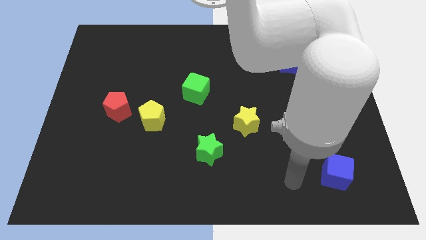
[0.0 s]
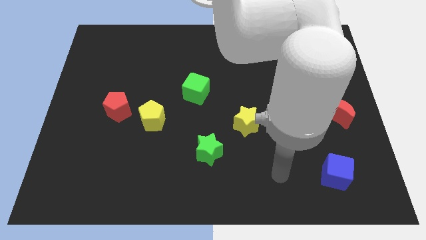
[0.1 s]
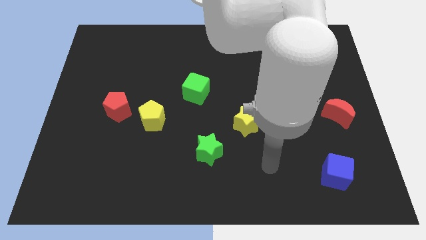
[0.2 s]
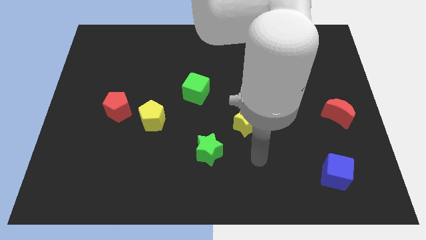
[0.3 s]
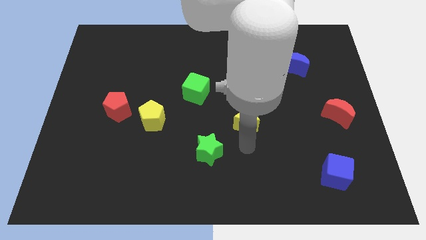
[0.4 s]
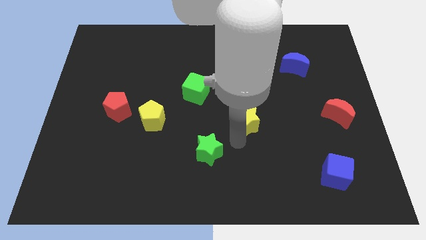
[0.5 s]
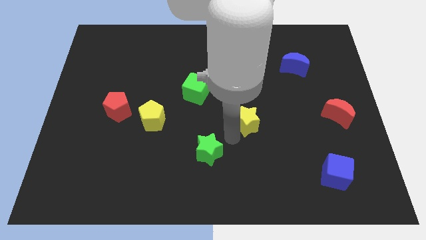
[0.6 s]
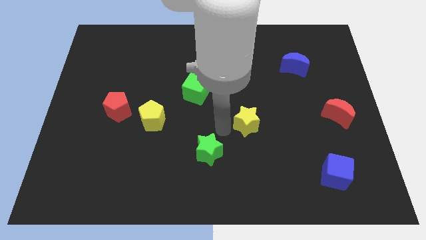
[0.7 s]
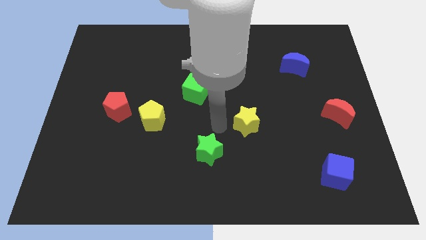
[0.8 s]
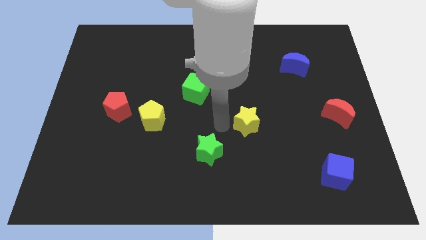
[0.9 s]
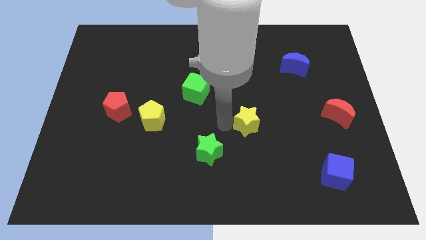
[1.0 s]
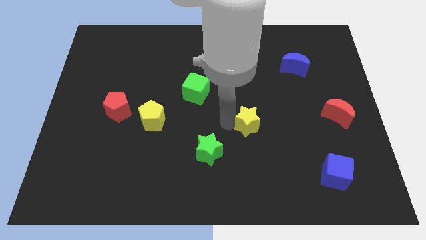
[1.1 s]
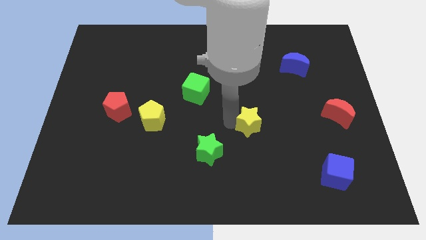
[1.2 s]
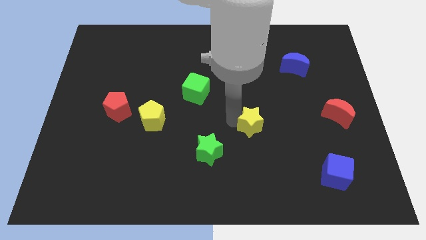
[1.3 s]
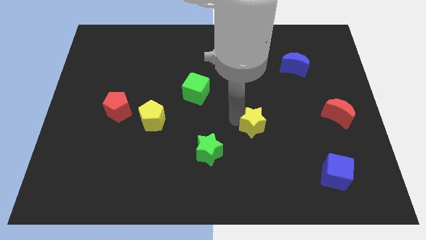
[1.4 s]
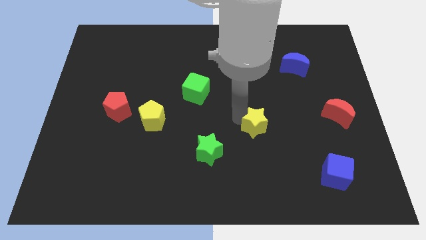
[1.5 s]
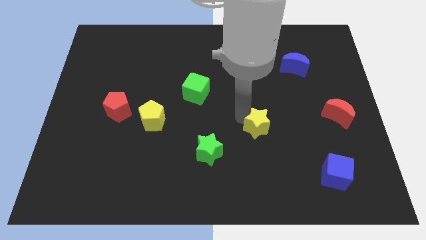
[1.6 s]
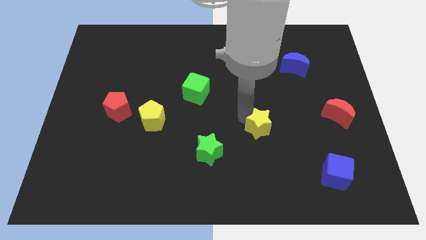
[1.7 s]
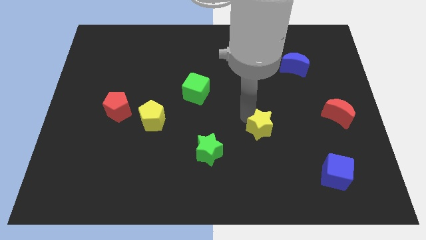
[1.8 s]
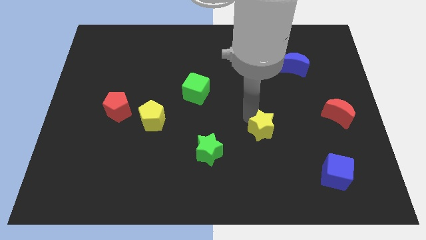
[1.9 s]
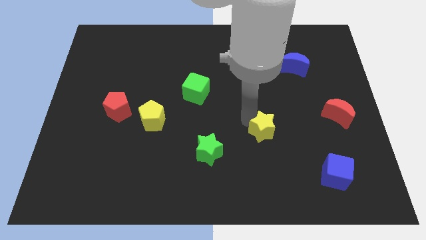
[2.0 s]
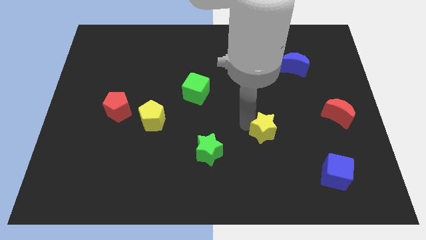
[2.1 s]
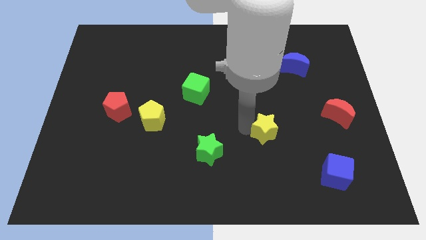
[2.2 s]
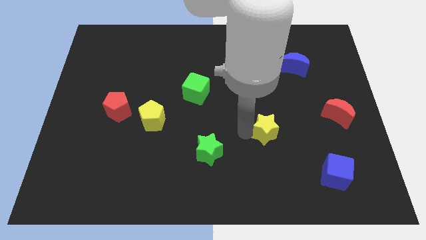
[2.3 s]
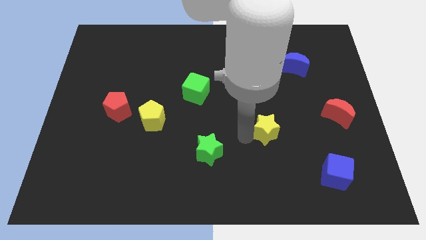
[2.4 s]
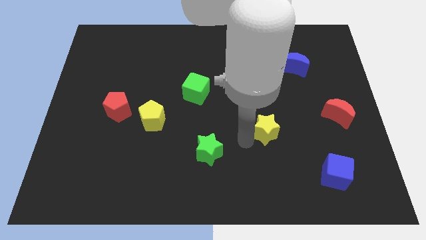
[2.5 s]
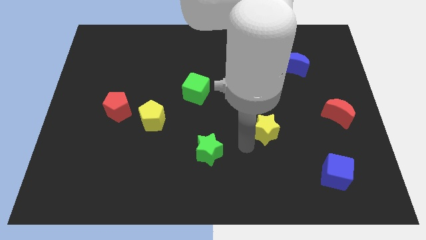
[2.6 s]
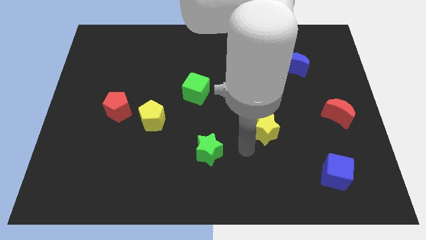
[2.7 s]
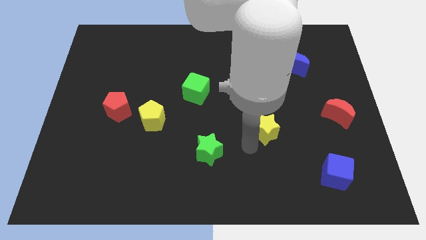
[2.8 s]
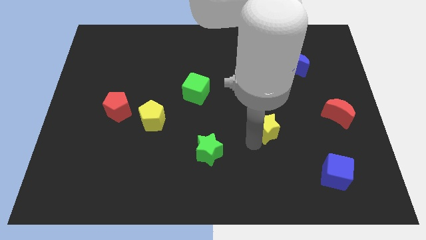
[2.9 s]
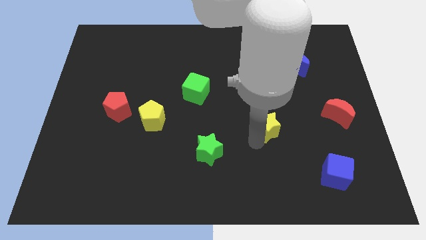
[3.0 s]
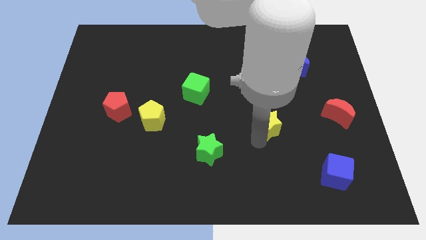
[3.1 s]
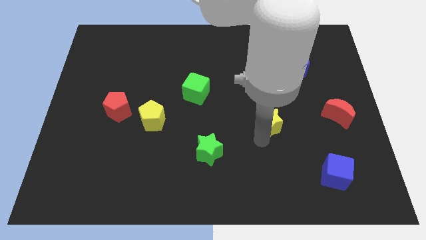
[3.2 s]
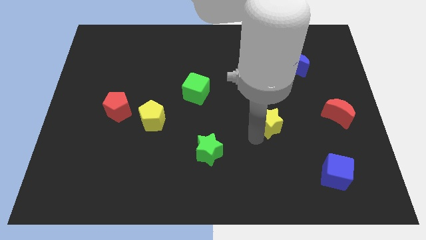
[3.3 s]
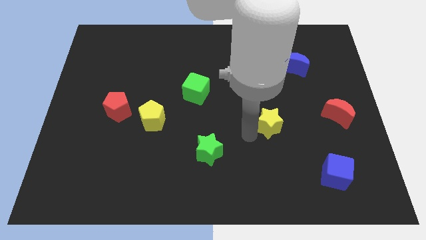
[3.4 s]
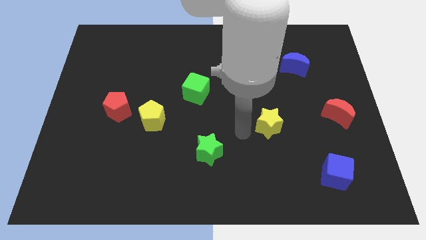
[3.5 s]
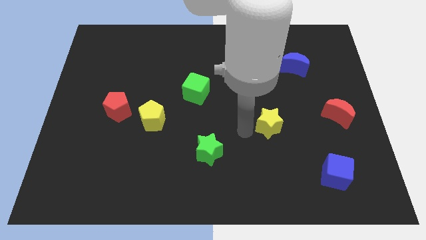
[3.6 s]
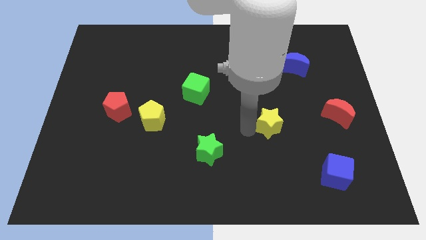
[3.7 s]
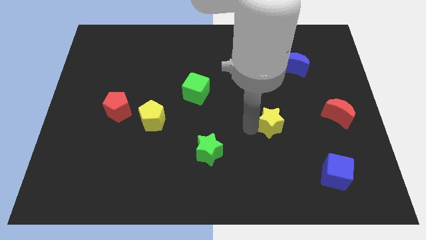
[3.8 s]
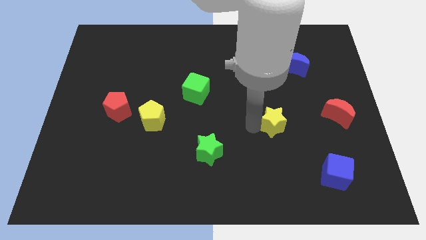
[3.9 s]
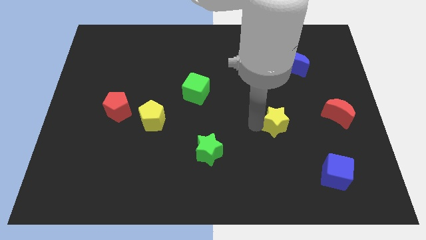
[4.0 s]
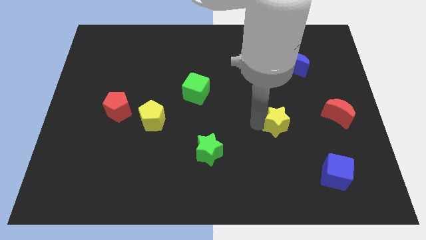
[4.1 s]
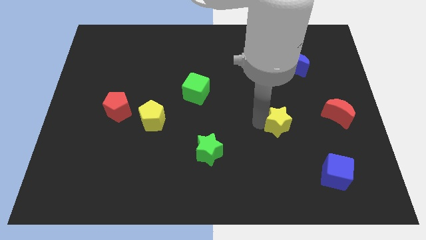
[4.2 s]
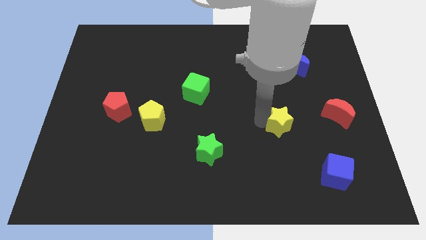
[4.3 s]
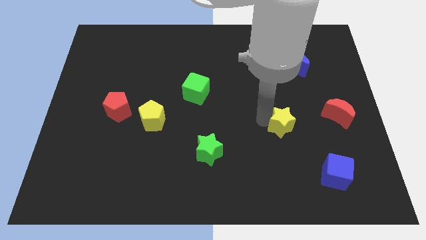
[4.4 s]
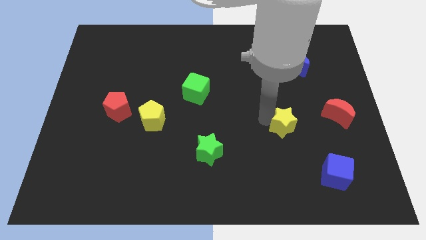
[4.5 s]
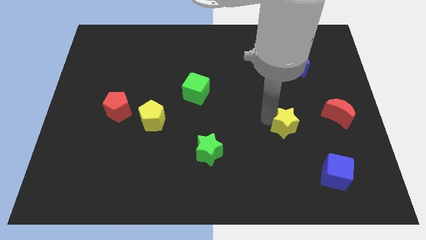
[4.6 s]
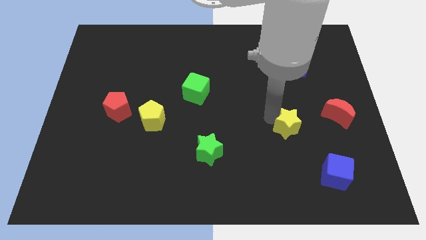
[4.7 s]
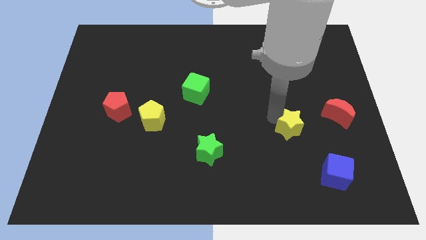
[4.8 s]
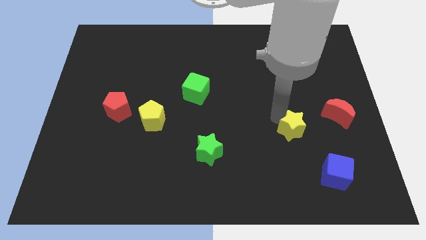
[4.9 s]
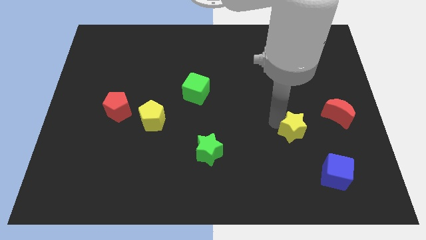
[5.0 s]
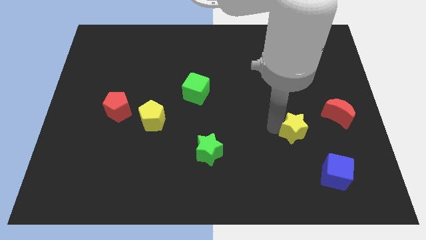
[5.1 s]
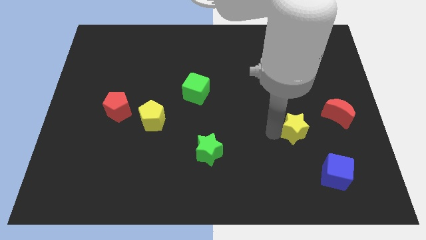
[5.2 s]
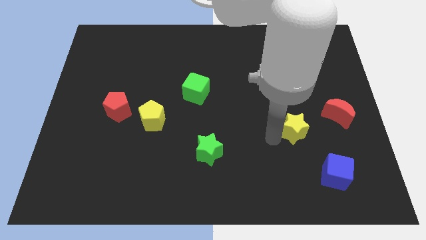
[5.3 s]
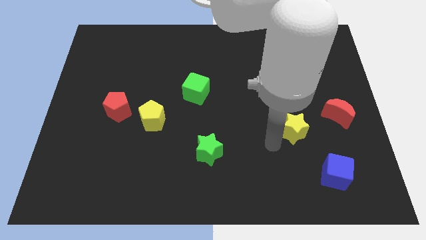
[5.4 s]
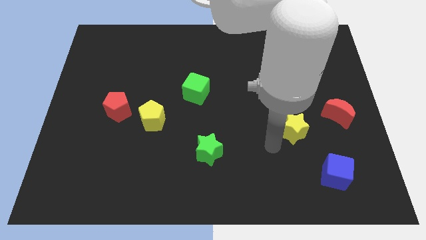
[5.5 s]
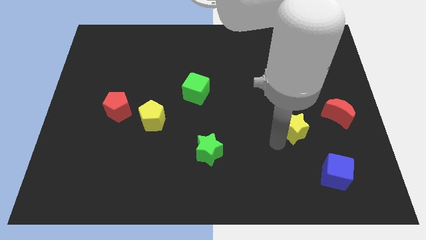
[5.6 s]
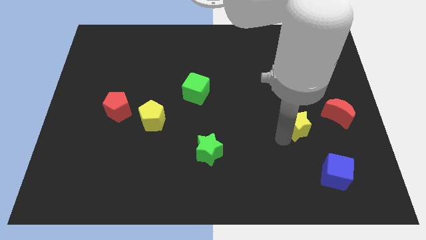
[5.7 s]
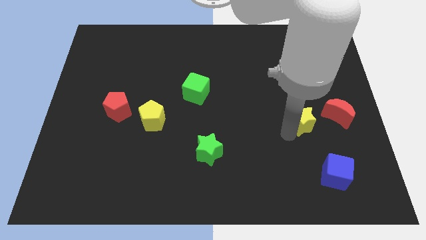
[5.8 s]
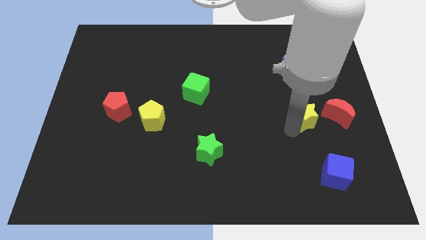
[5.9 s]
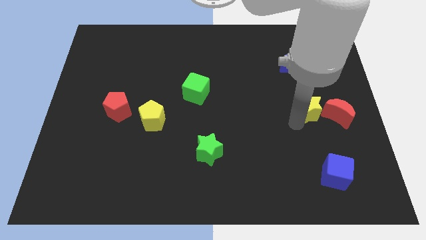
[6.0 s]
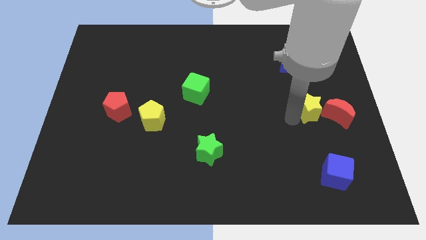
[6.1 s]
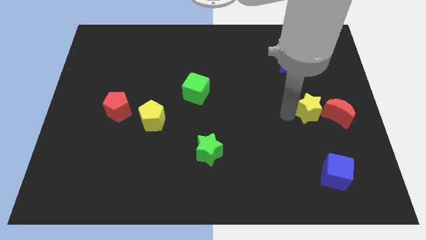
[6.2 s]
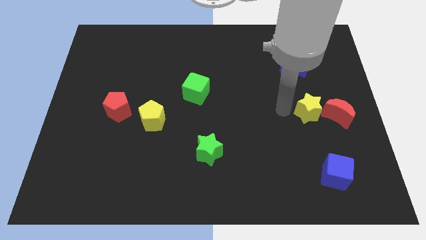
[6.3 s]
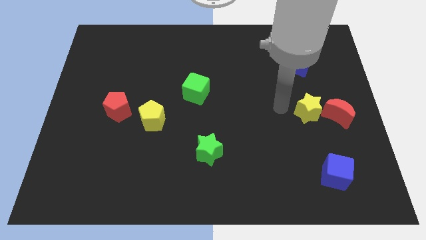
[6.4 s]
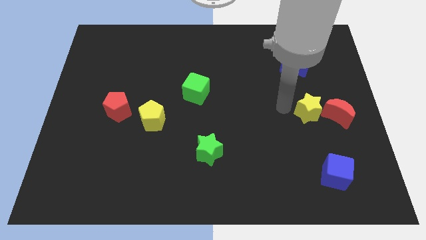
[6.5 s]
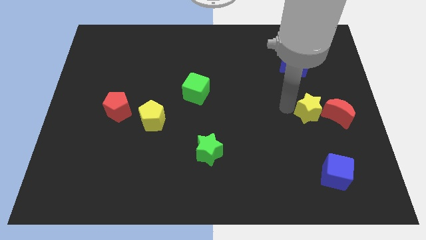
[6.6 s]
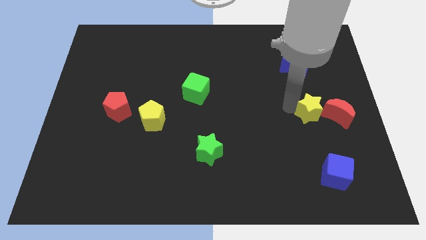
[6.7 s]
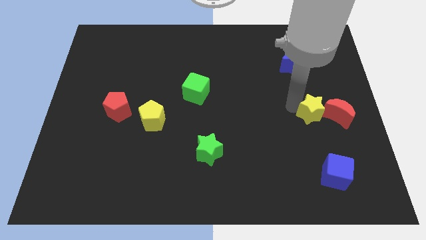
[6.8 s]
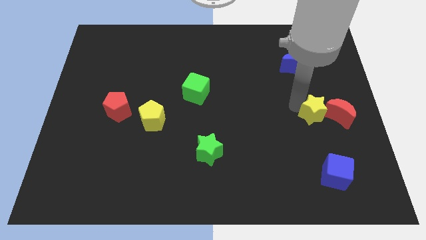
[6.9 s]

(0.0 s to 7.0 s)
push the yellow star towards the red moon

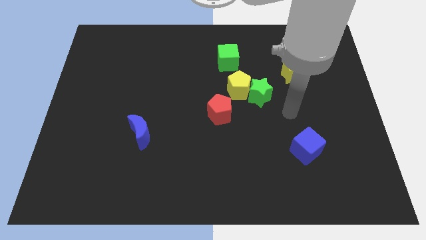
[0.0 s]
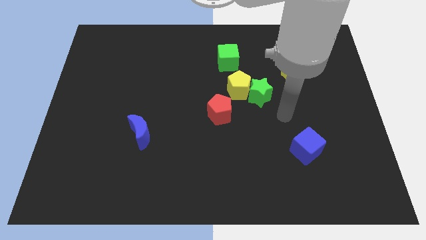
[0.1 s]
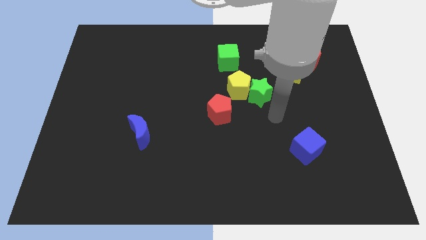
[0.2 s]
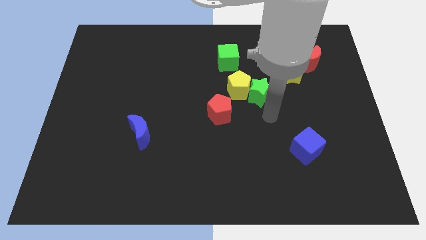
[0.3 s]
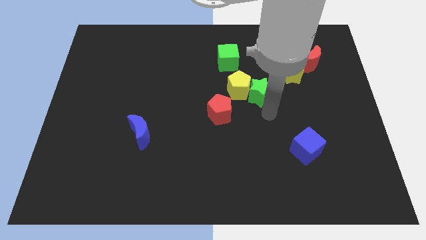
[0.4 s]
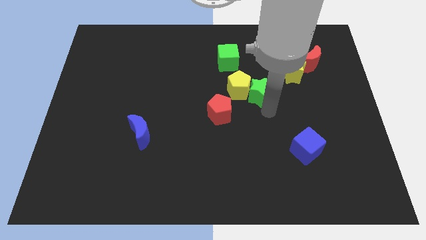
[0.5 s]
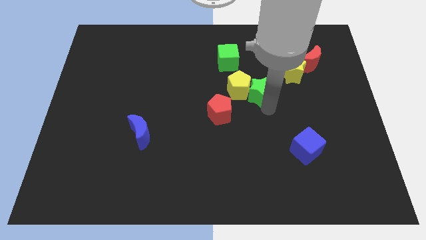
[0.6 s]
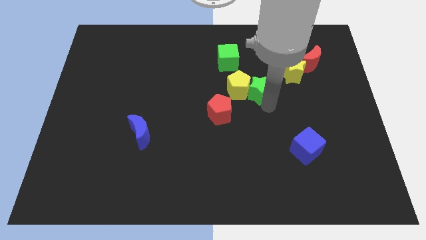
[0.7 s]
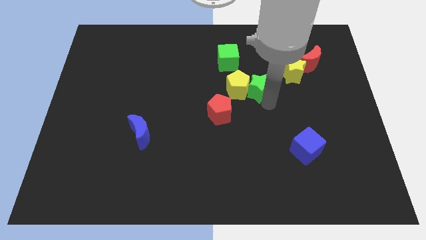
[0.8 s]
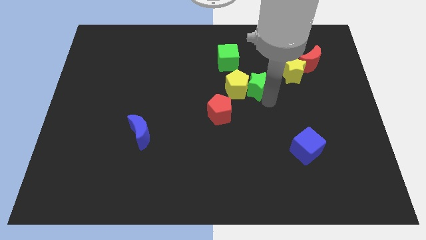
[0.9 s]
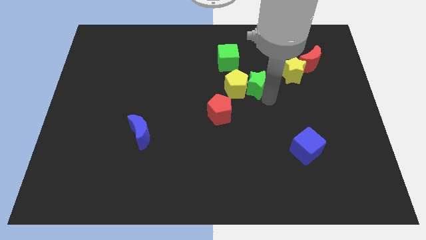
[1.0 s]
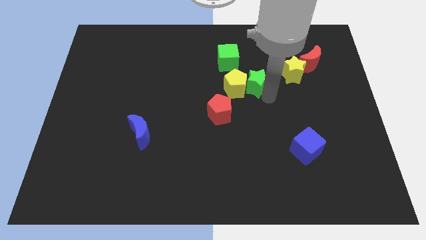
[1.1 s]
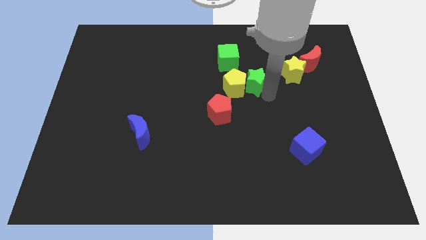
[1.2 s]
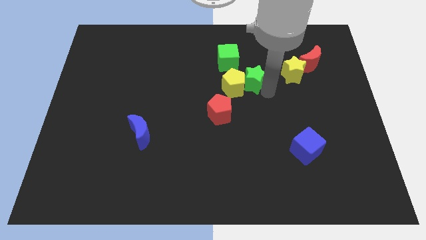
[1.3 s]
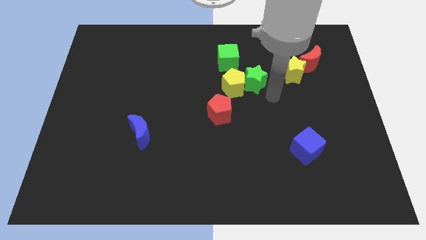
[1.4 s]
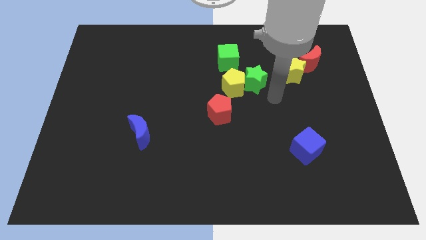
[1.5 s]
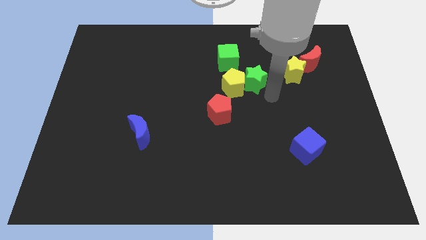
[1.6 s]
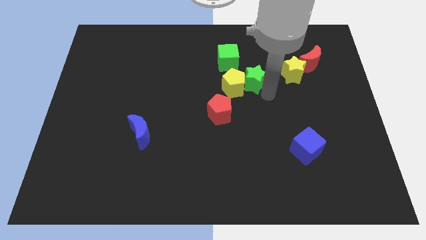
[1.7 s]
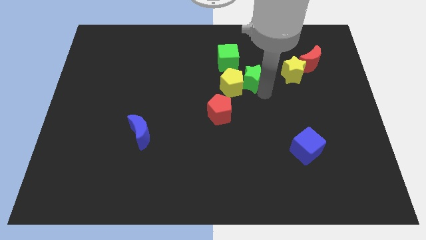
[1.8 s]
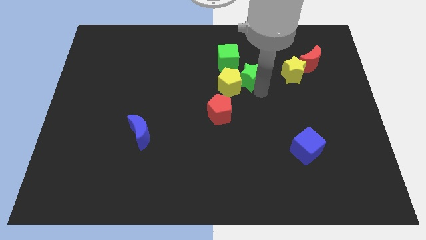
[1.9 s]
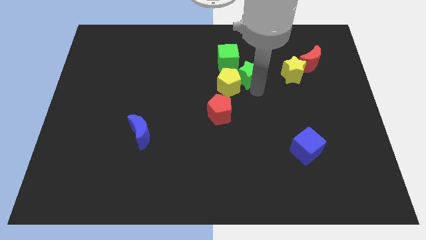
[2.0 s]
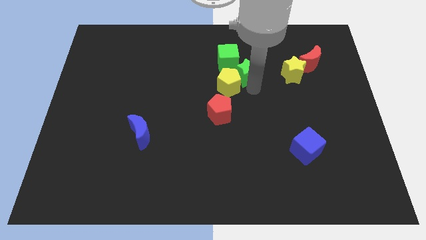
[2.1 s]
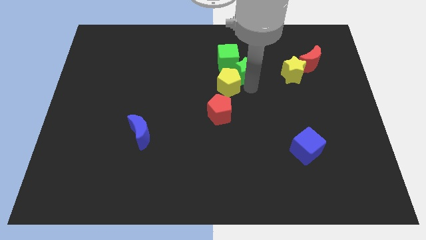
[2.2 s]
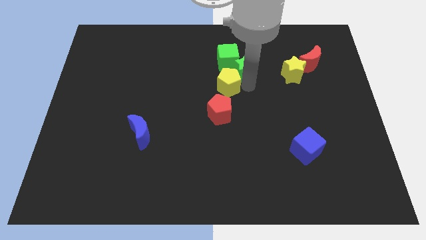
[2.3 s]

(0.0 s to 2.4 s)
put the green star next to the green cube
